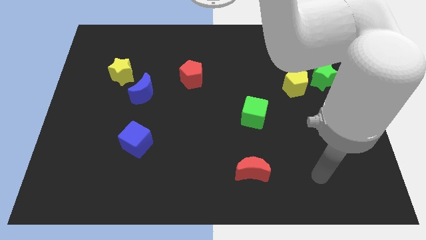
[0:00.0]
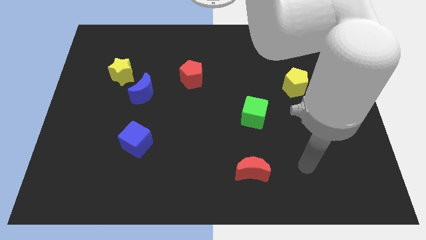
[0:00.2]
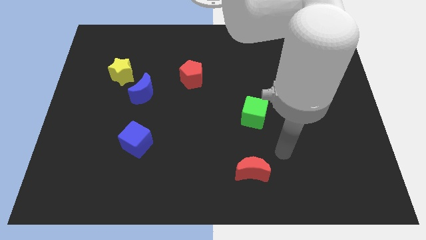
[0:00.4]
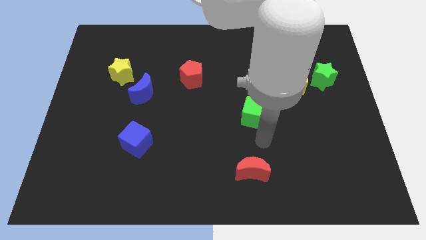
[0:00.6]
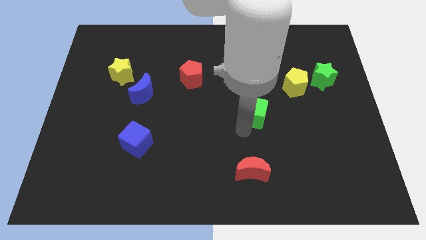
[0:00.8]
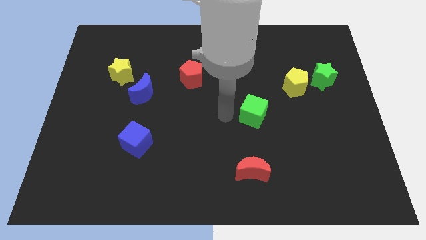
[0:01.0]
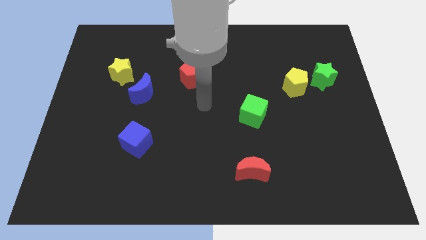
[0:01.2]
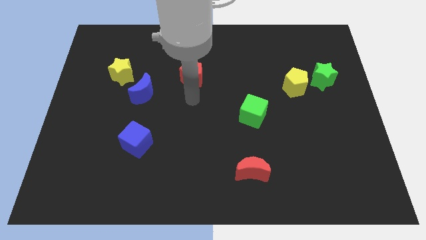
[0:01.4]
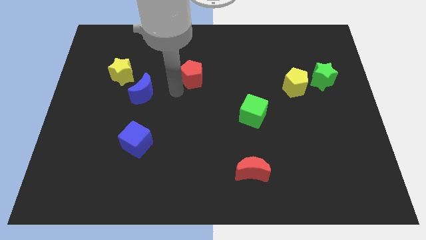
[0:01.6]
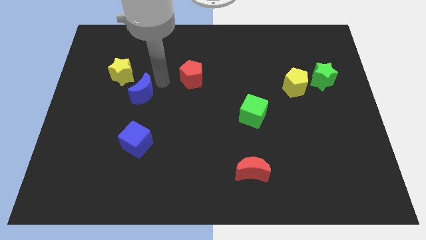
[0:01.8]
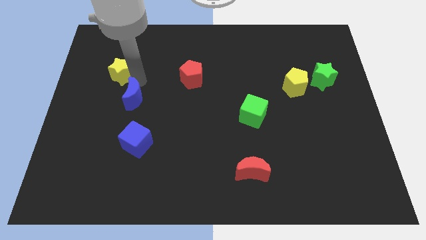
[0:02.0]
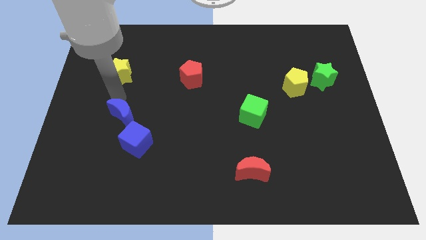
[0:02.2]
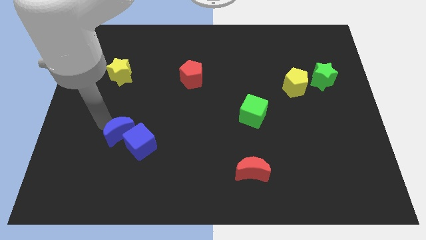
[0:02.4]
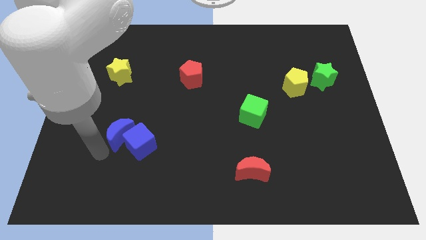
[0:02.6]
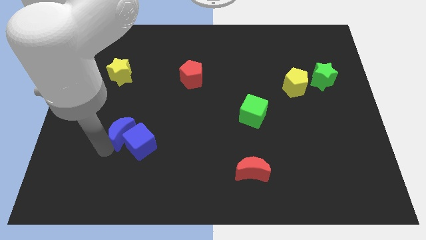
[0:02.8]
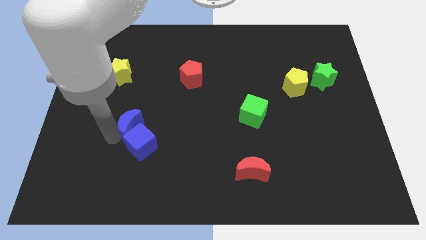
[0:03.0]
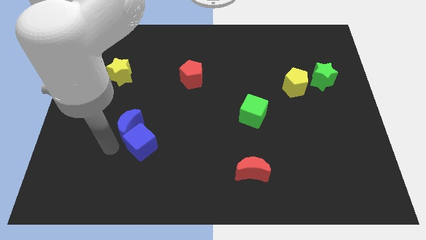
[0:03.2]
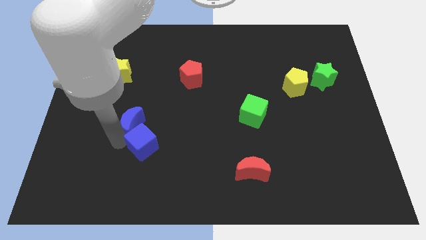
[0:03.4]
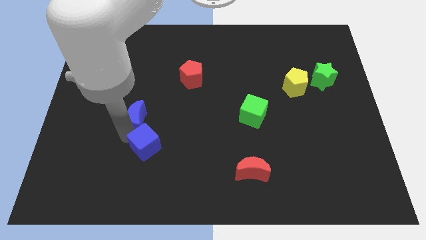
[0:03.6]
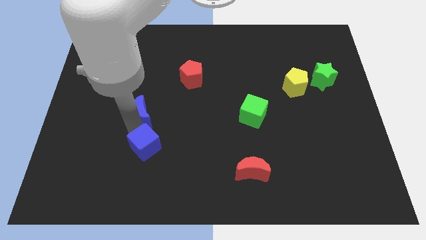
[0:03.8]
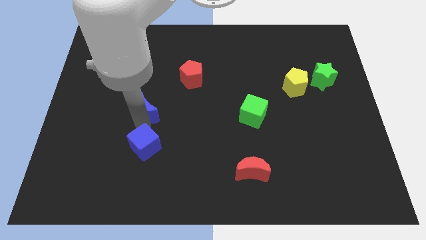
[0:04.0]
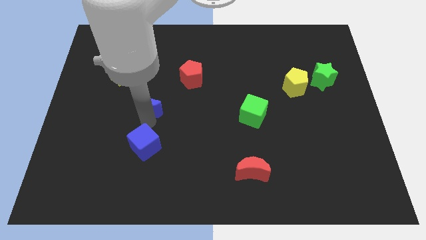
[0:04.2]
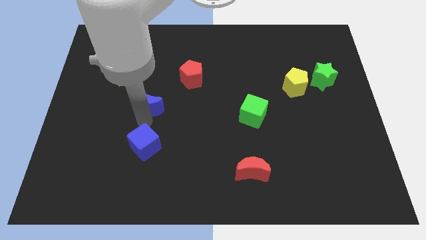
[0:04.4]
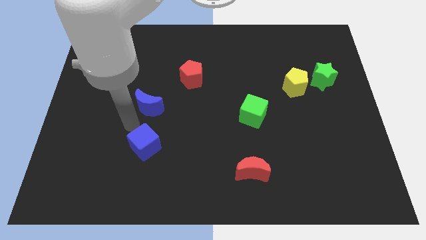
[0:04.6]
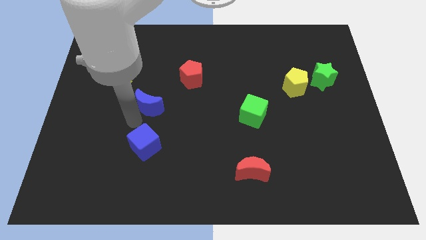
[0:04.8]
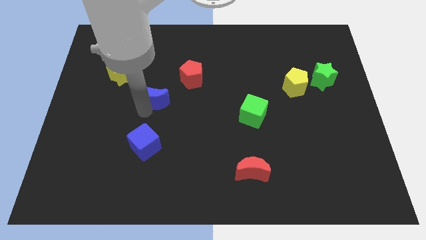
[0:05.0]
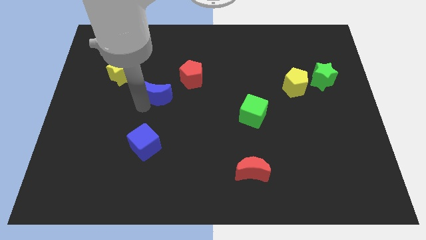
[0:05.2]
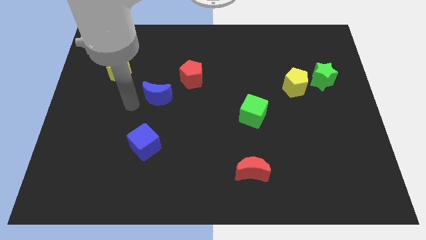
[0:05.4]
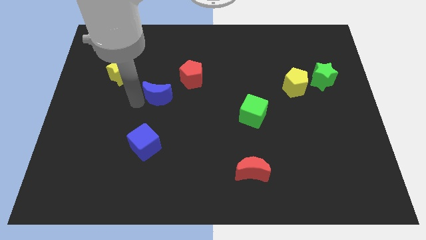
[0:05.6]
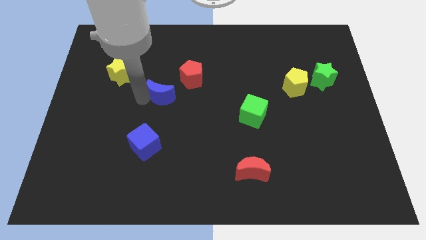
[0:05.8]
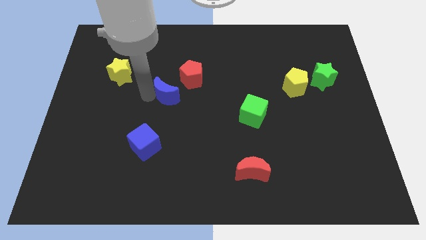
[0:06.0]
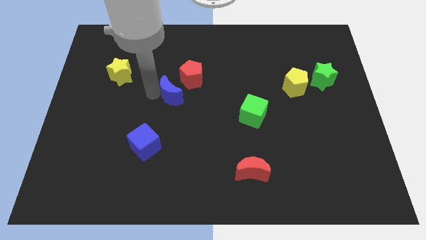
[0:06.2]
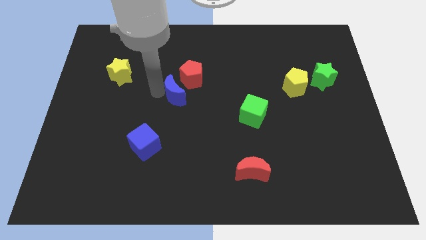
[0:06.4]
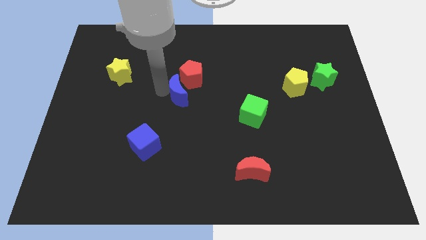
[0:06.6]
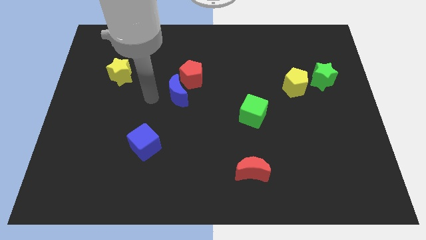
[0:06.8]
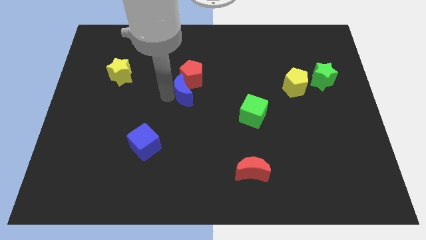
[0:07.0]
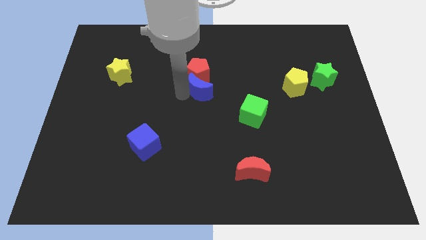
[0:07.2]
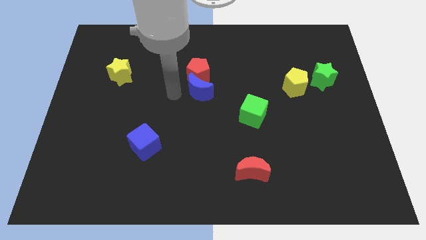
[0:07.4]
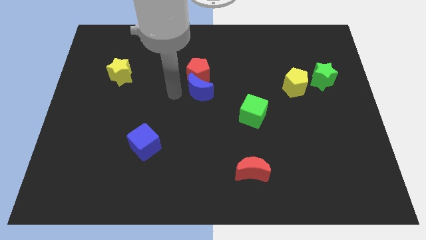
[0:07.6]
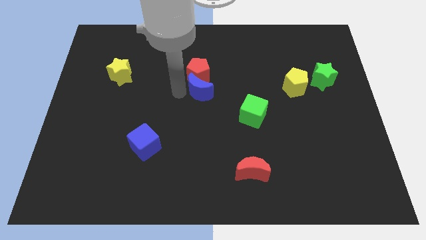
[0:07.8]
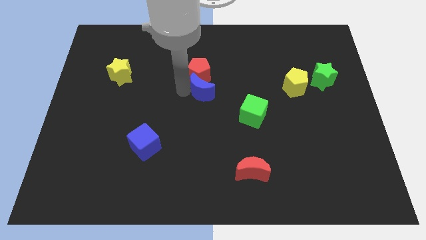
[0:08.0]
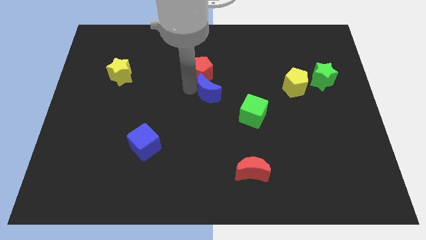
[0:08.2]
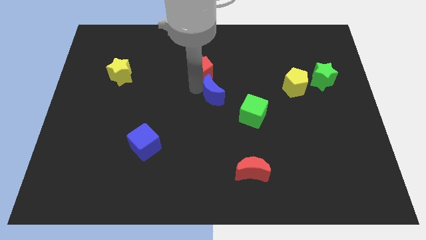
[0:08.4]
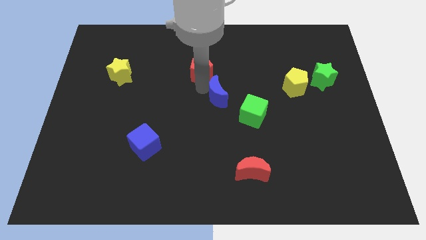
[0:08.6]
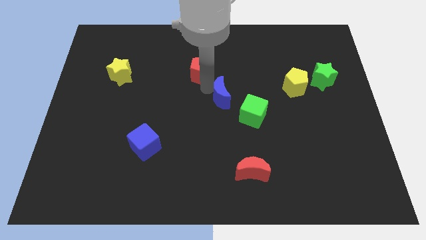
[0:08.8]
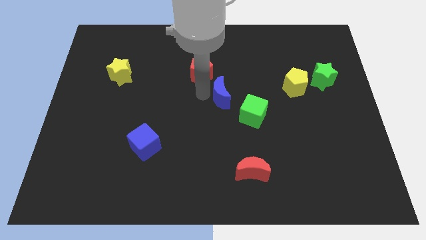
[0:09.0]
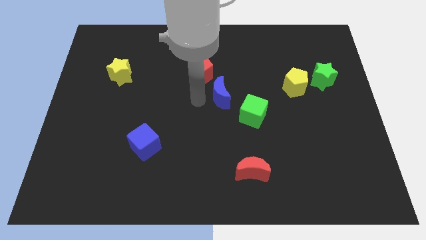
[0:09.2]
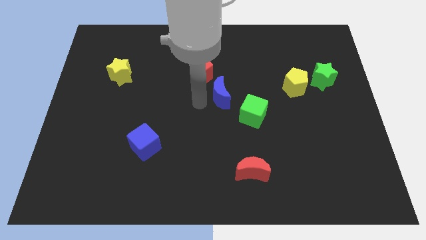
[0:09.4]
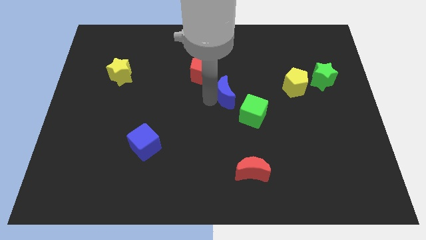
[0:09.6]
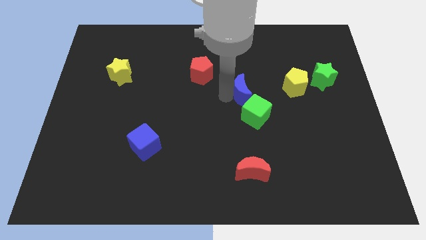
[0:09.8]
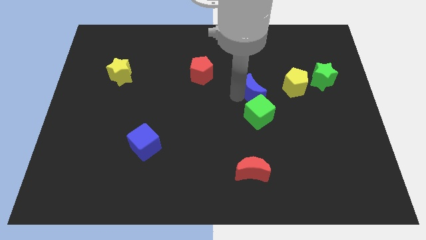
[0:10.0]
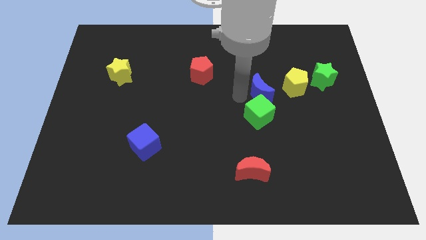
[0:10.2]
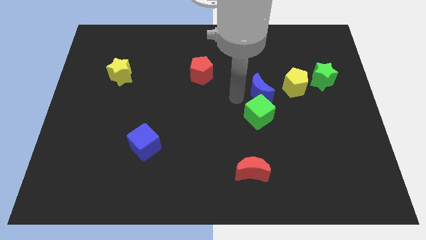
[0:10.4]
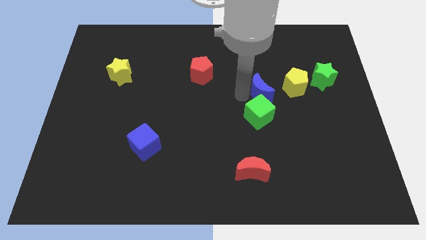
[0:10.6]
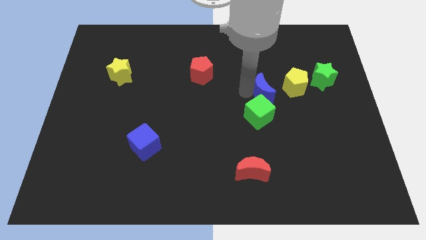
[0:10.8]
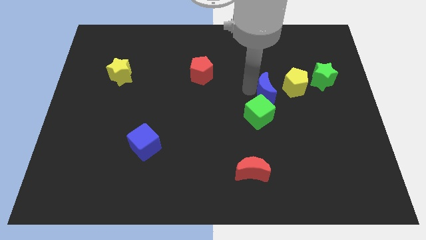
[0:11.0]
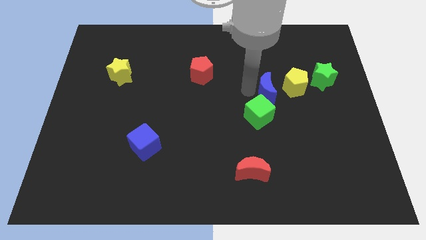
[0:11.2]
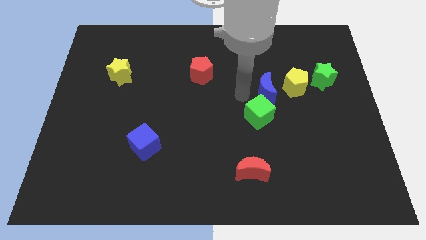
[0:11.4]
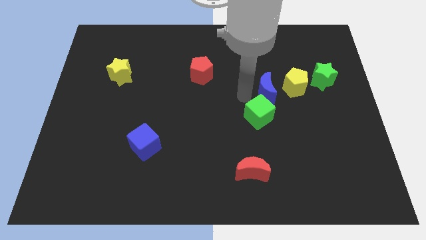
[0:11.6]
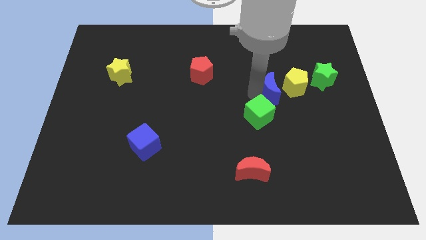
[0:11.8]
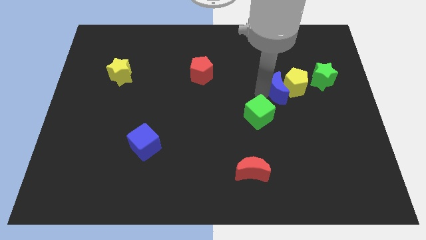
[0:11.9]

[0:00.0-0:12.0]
put the blue moon to the yellow pentagon

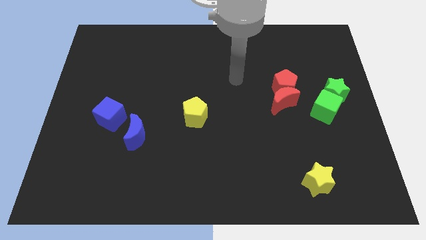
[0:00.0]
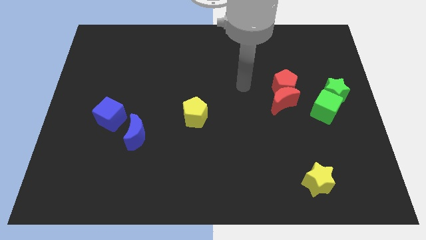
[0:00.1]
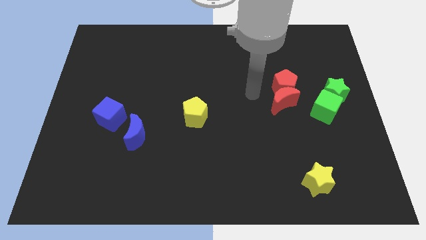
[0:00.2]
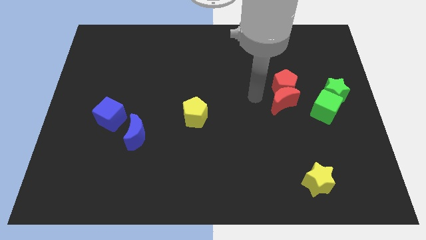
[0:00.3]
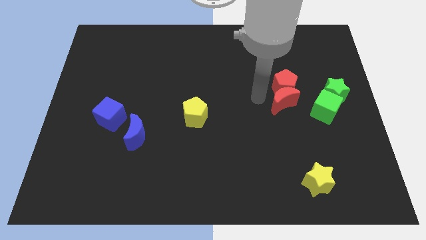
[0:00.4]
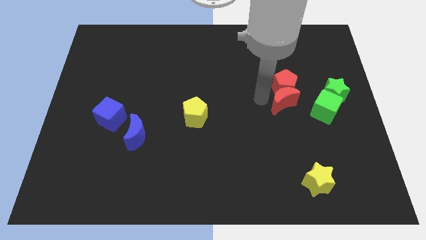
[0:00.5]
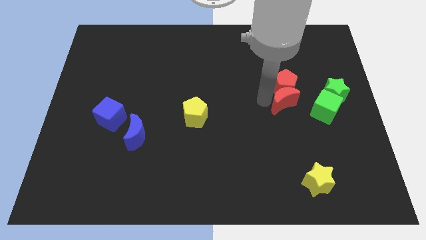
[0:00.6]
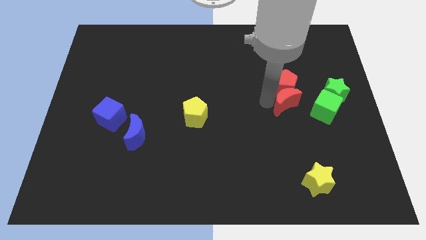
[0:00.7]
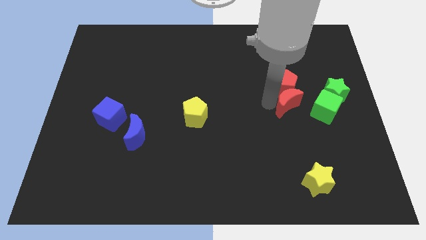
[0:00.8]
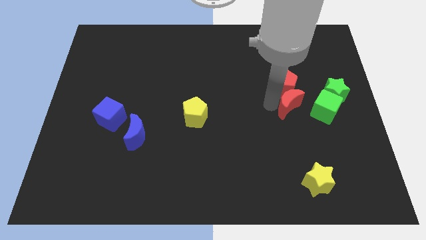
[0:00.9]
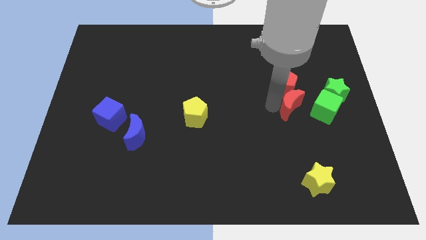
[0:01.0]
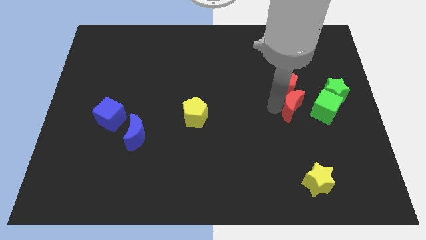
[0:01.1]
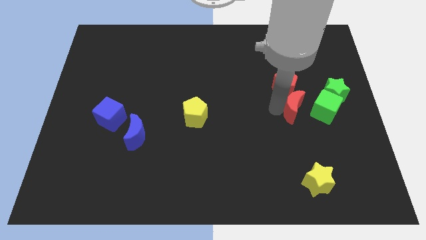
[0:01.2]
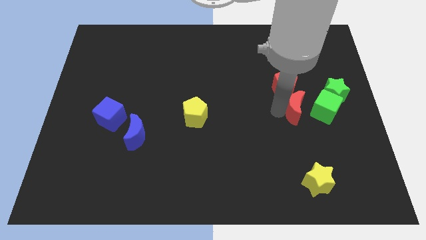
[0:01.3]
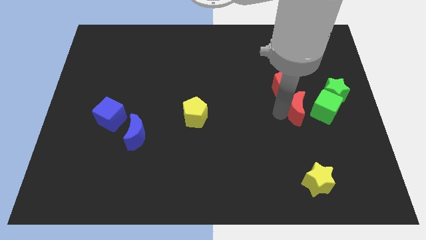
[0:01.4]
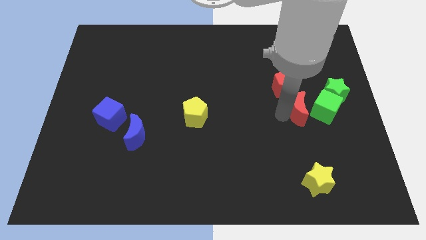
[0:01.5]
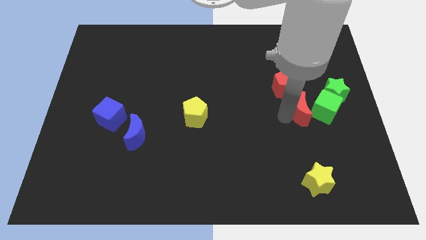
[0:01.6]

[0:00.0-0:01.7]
slide the red moon to the green cube

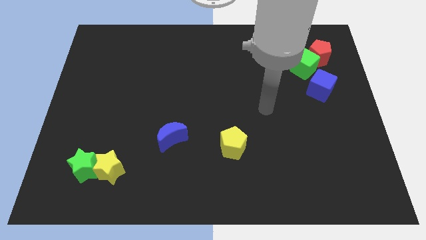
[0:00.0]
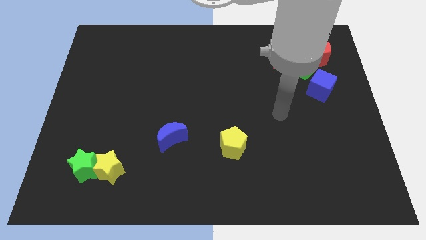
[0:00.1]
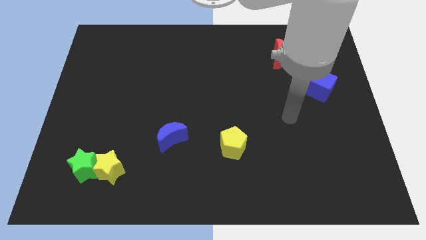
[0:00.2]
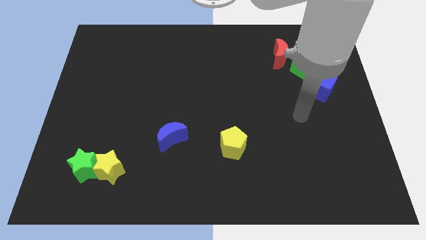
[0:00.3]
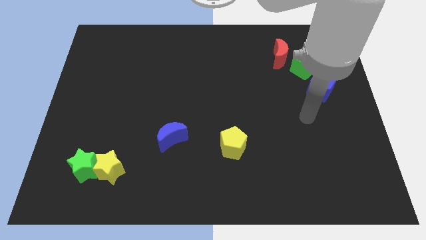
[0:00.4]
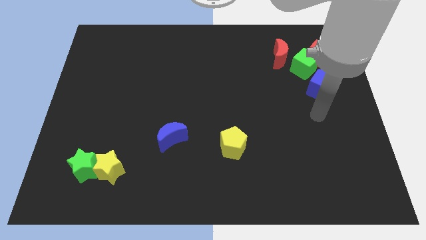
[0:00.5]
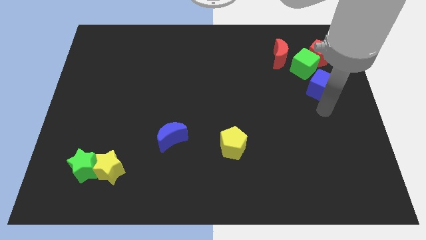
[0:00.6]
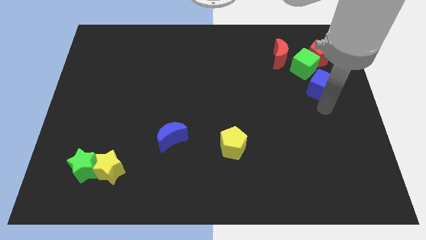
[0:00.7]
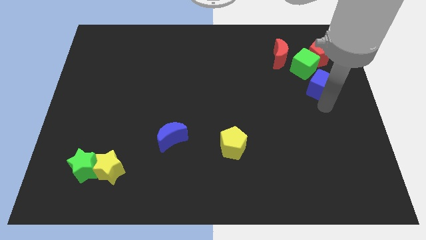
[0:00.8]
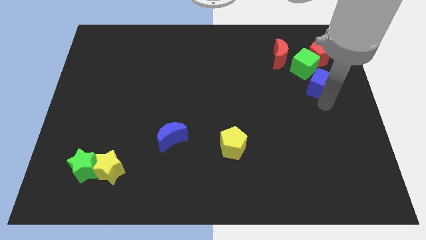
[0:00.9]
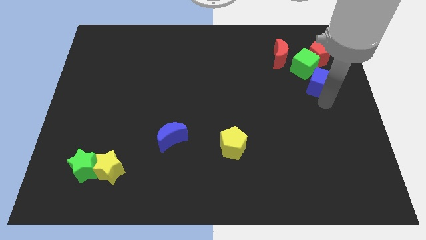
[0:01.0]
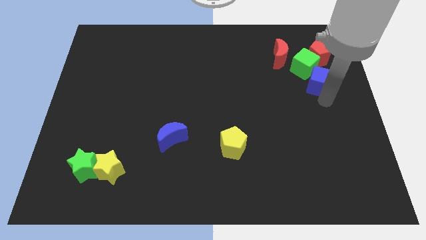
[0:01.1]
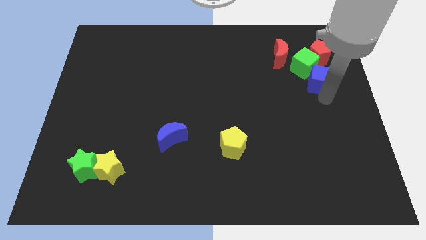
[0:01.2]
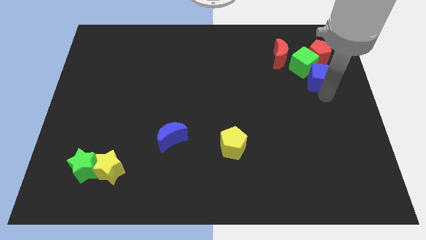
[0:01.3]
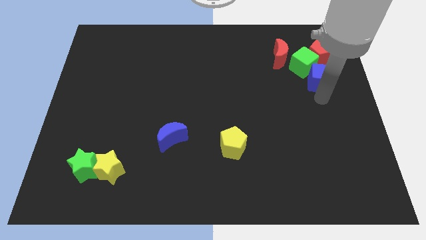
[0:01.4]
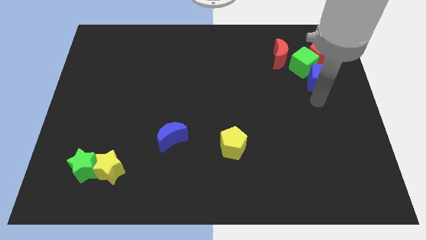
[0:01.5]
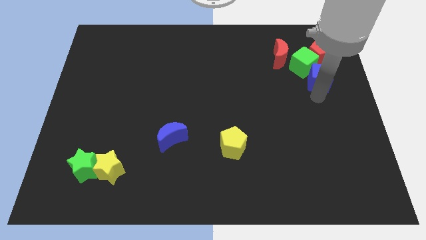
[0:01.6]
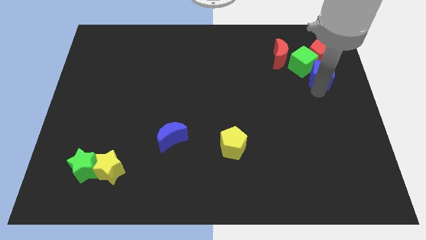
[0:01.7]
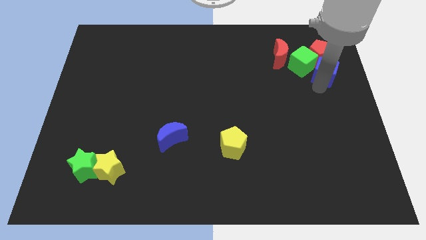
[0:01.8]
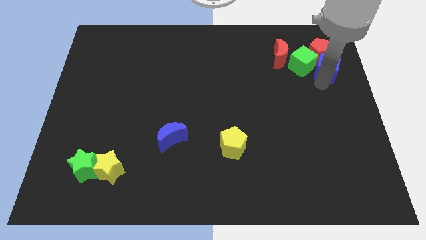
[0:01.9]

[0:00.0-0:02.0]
put the blue cube close to the red pentagon
